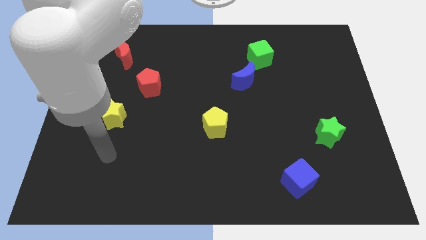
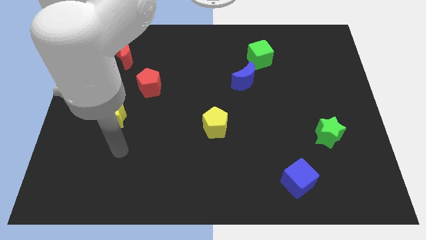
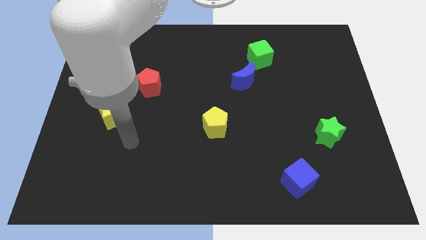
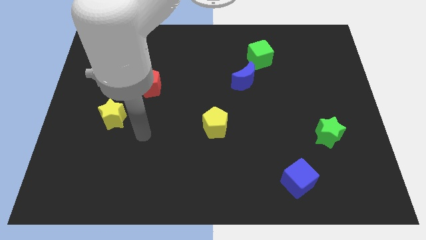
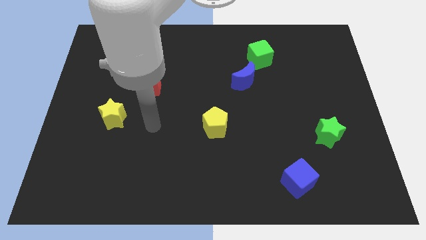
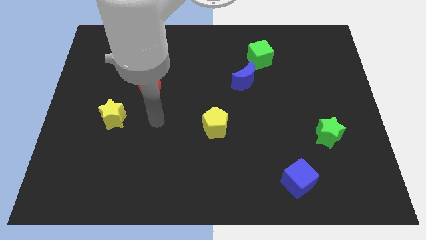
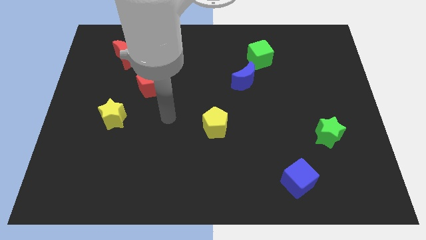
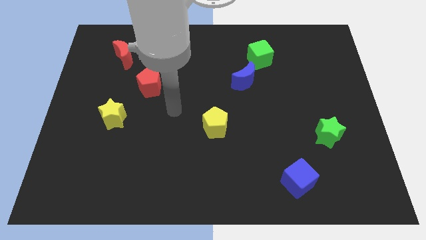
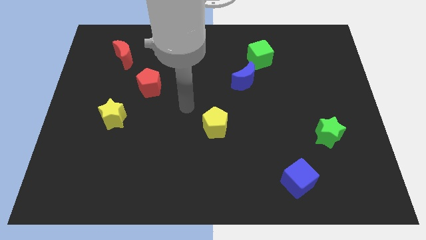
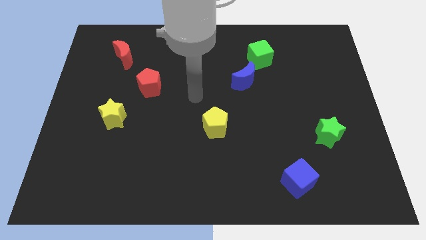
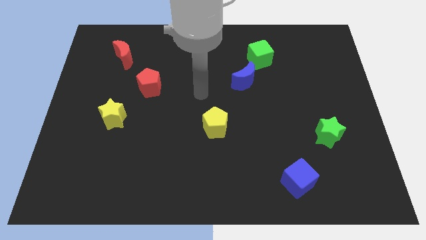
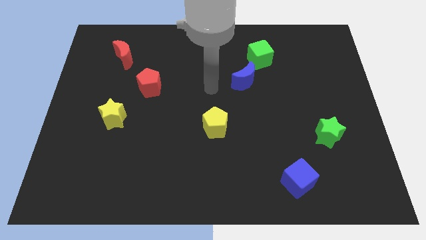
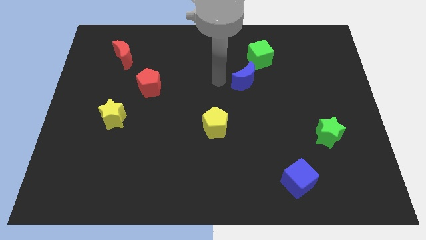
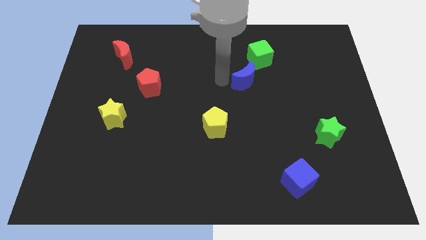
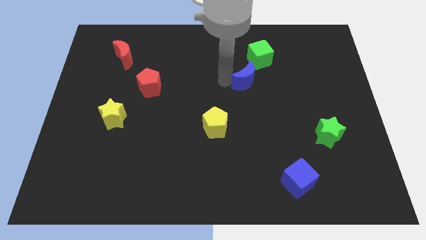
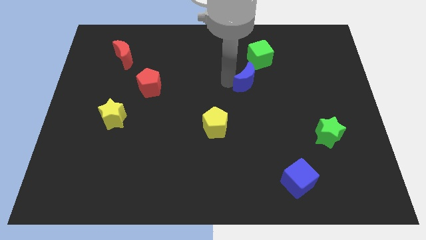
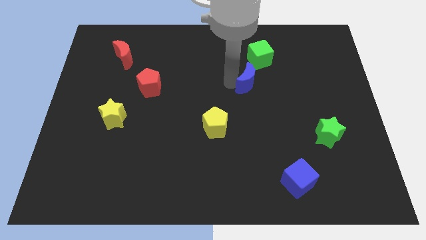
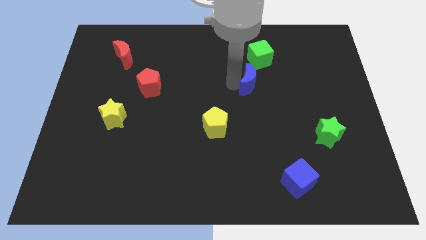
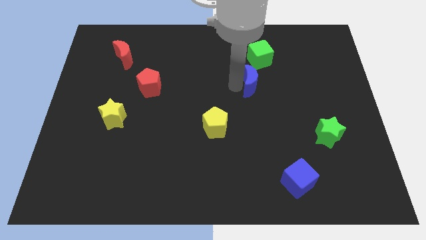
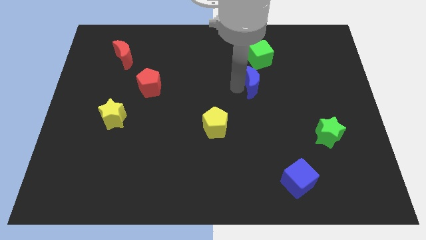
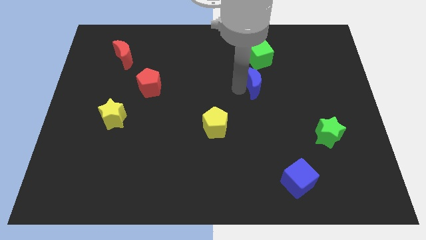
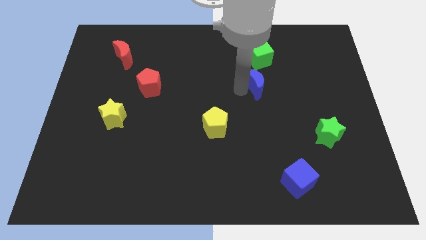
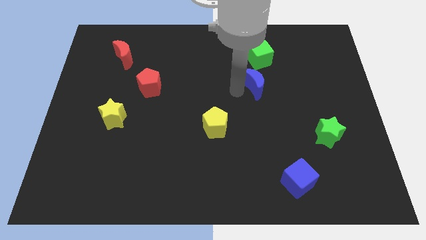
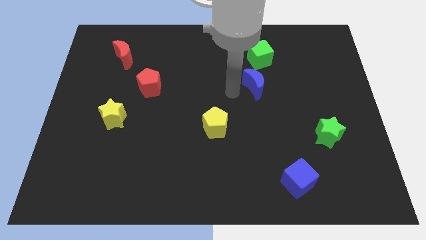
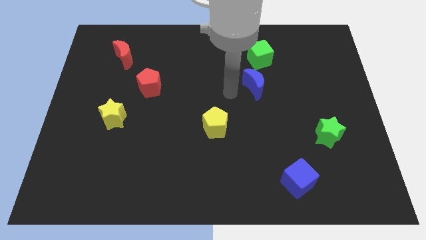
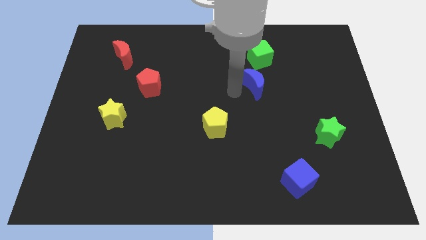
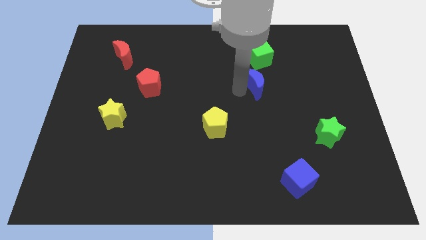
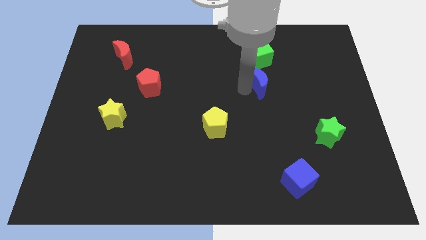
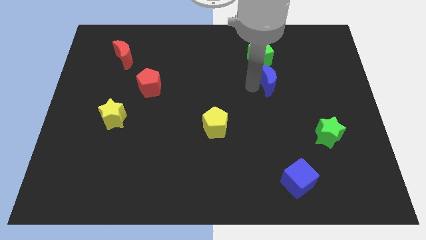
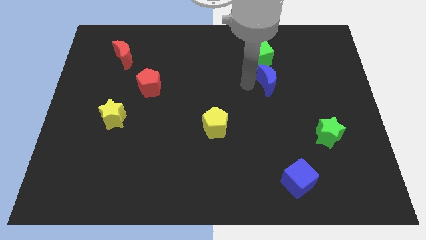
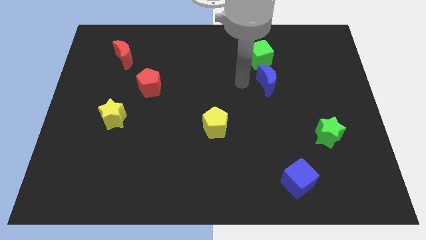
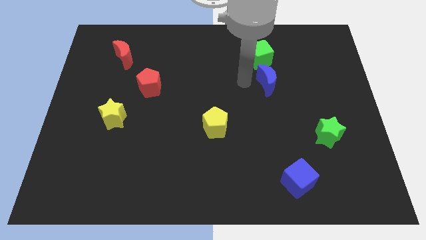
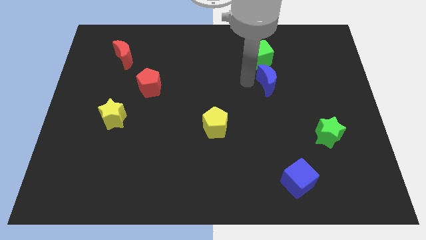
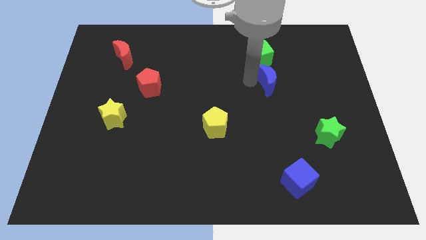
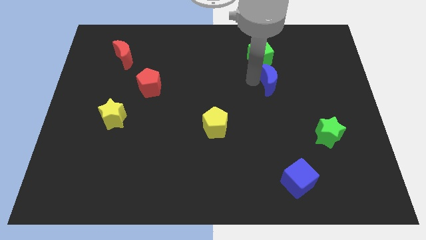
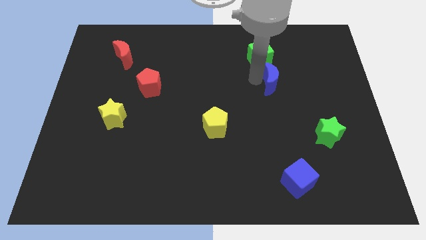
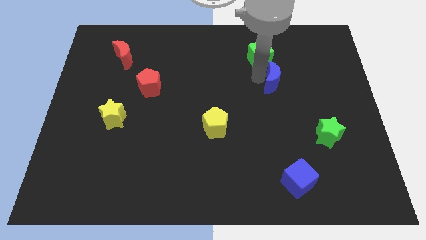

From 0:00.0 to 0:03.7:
slightly slide the blue moon to the right

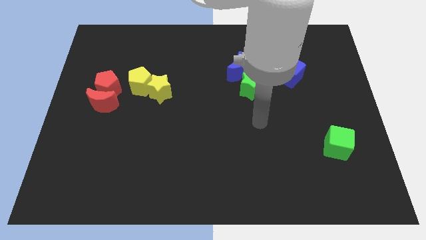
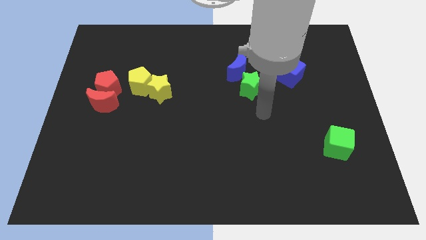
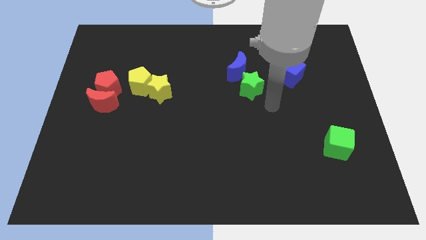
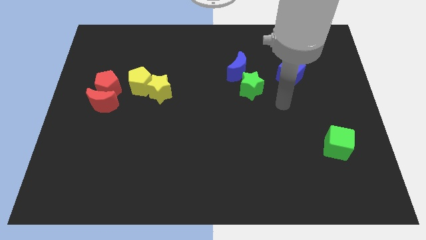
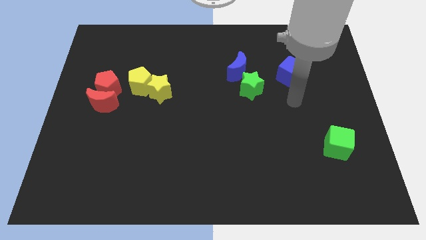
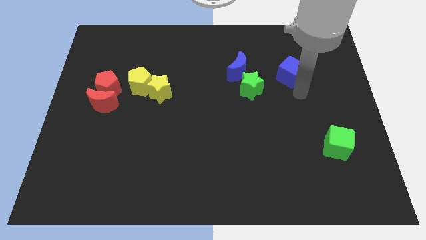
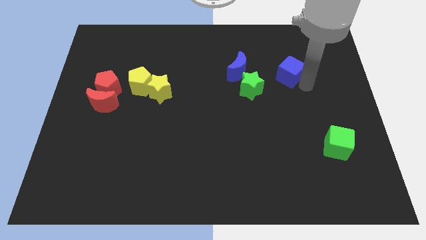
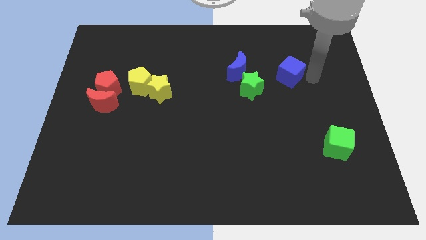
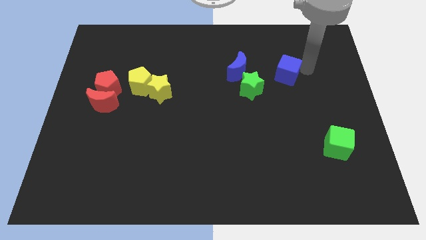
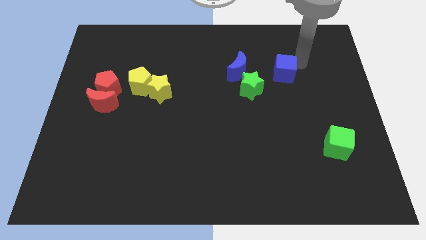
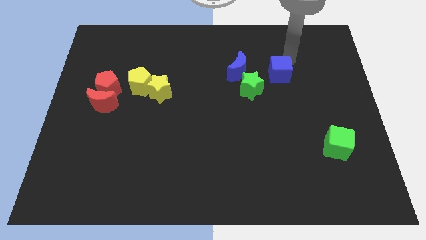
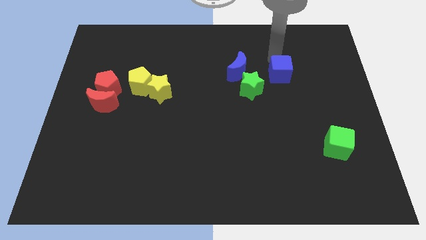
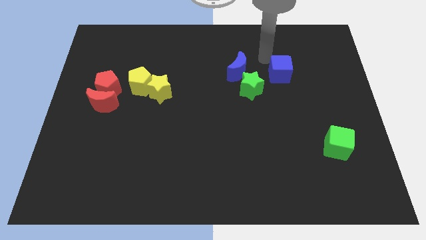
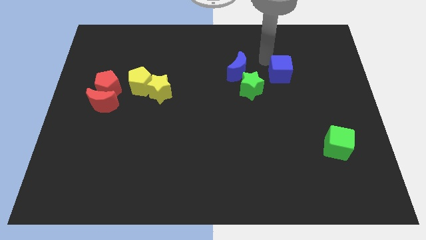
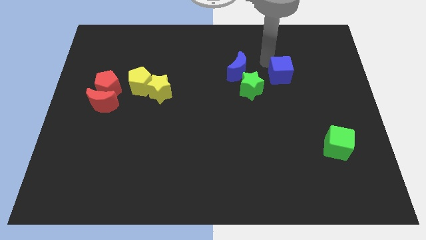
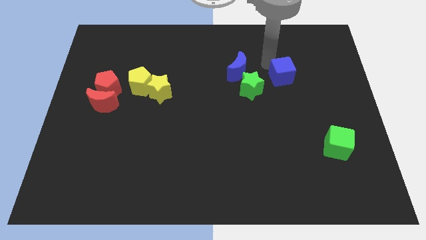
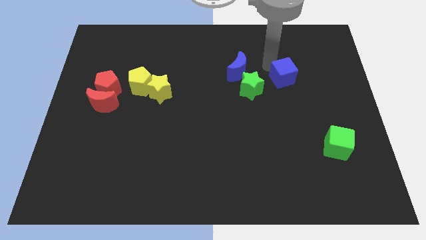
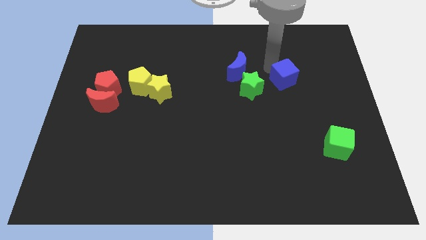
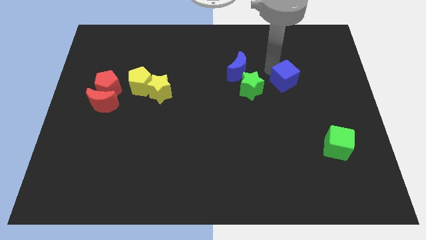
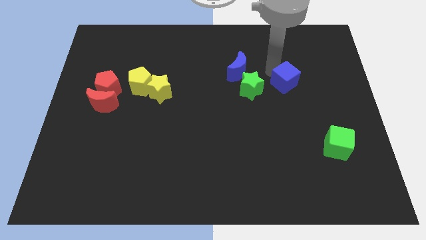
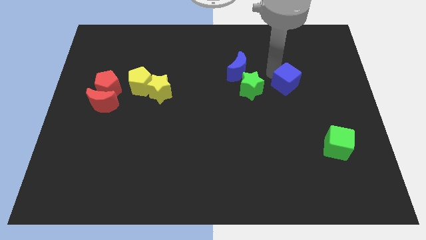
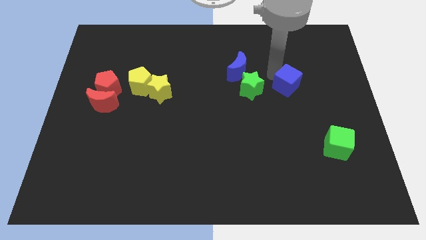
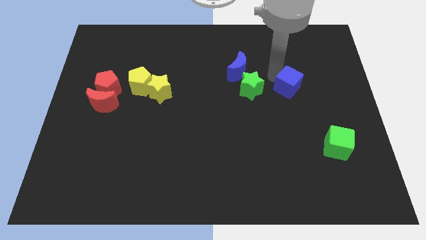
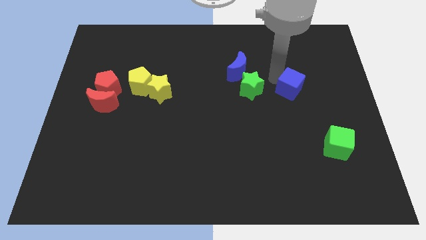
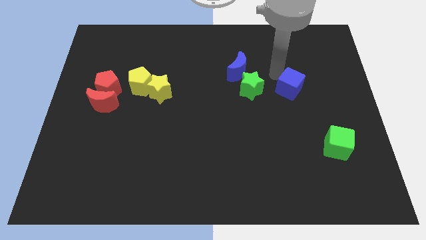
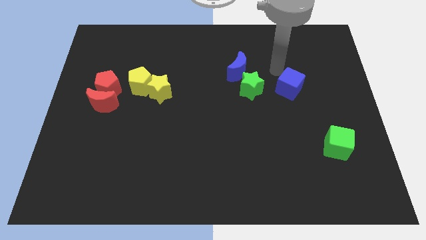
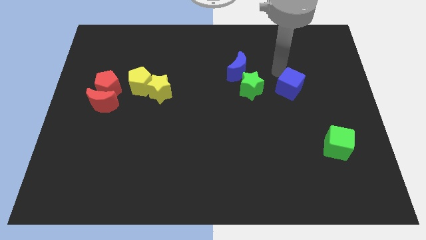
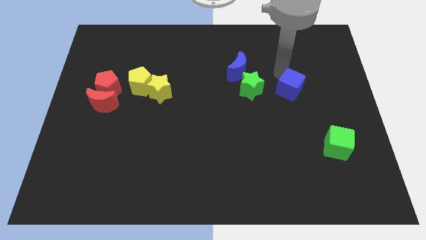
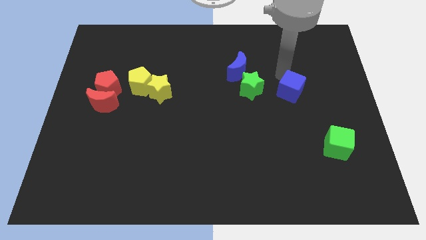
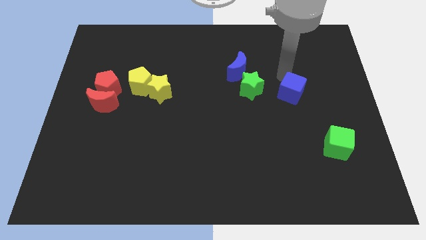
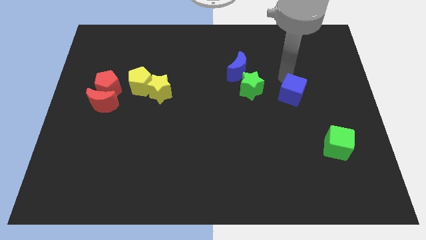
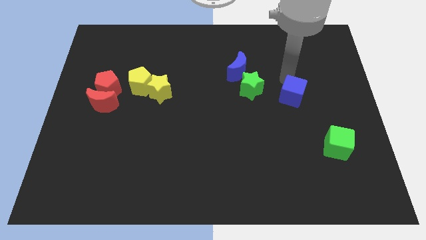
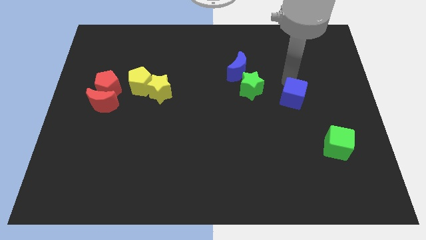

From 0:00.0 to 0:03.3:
slightly move the blue cube downwards

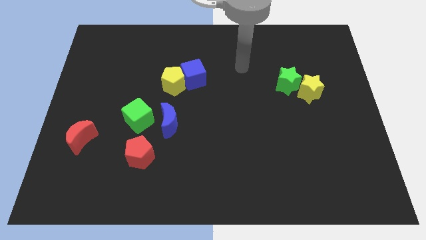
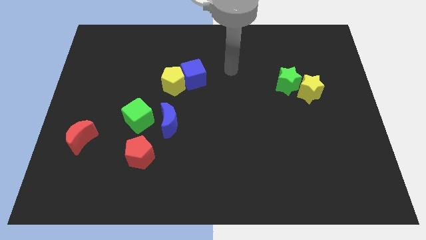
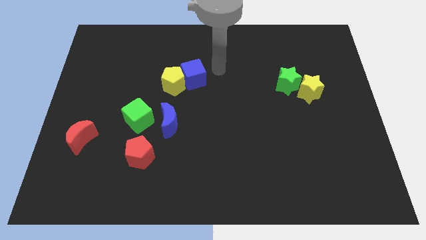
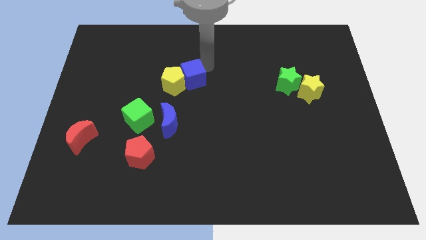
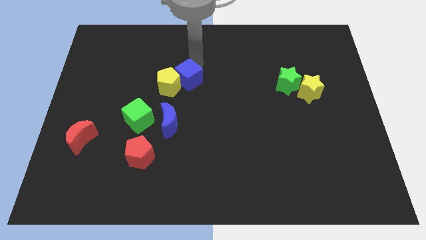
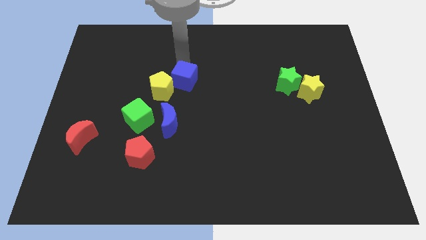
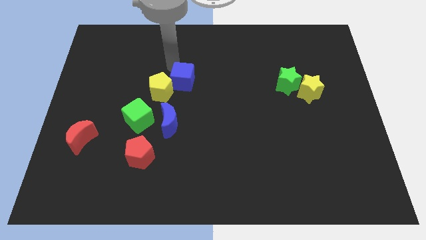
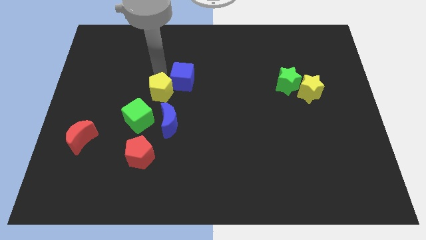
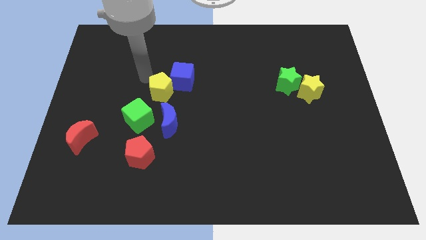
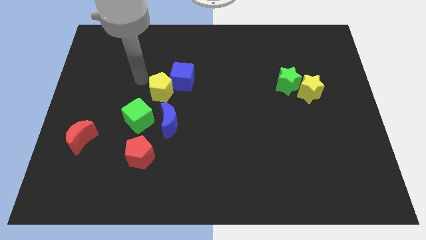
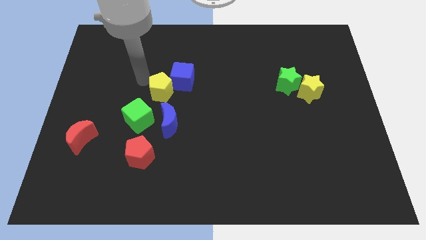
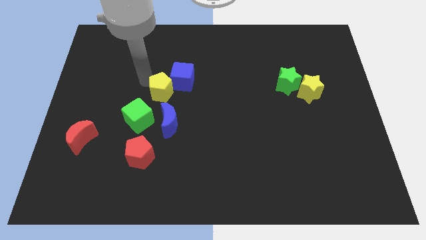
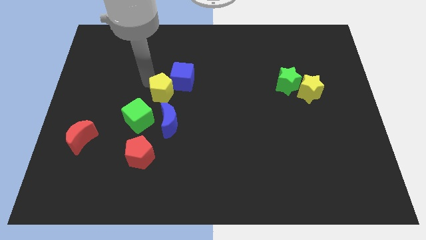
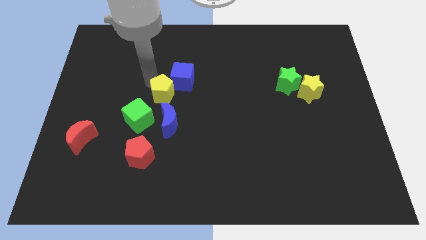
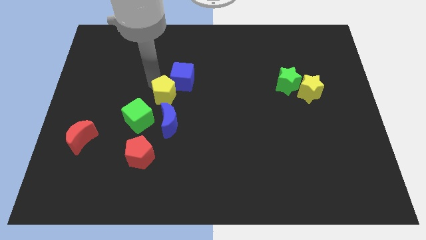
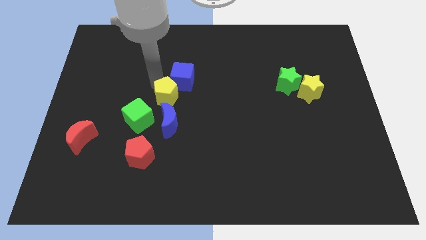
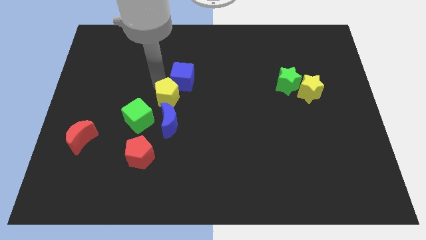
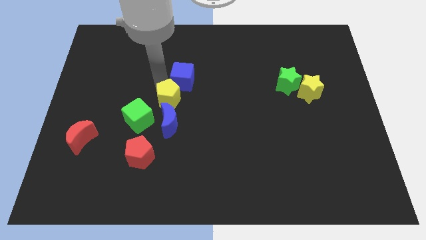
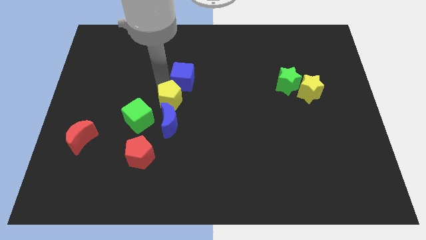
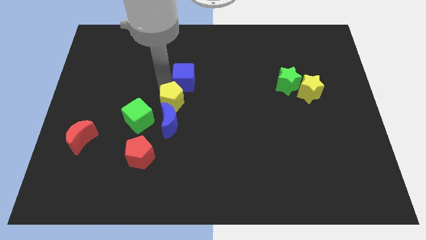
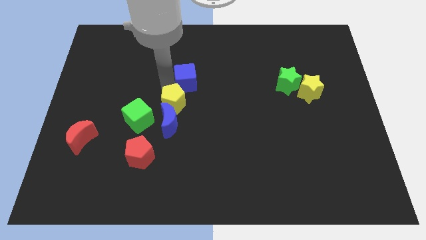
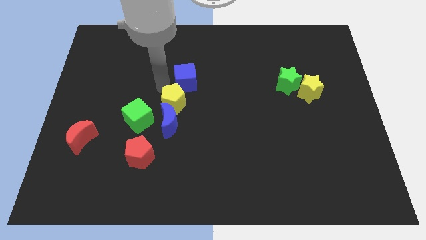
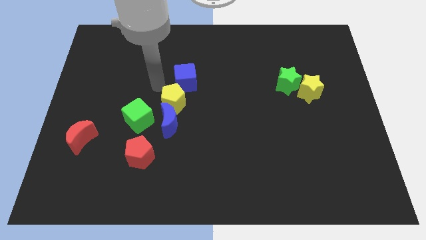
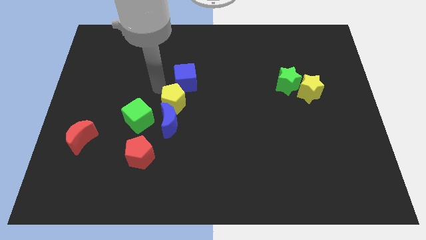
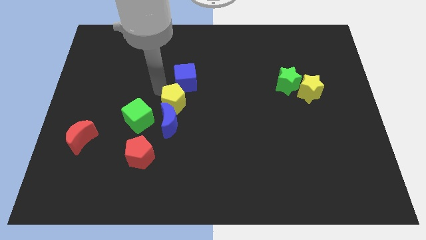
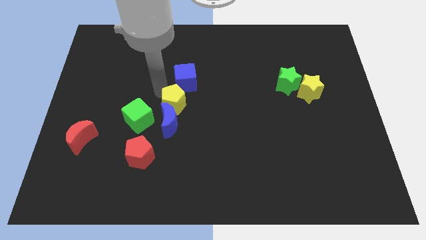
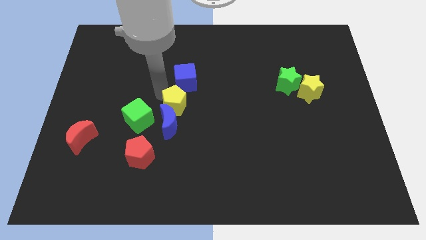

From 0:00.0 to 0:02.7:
slide the yellow pentagon a little bit downwards
